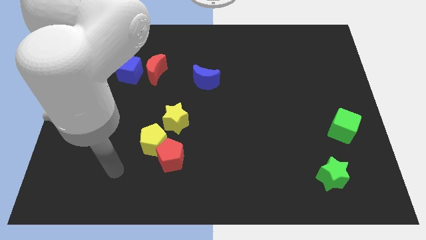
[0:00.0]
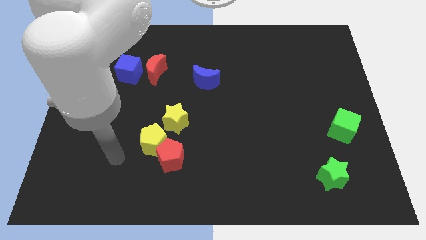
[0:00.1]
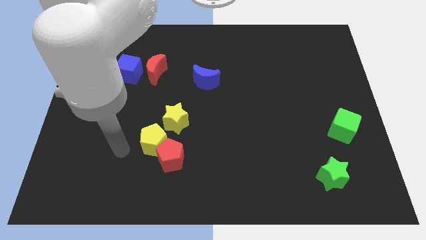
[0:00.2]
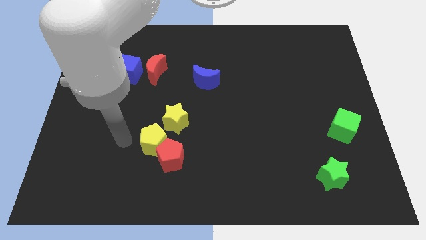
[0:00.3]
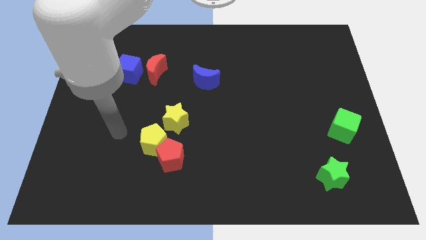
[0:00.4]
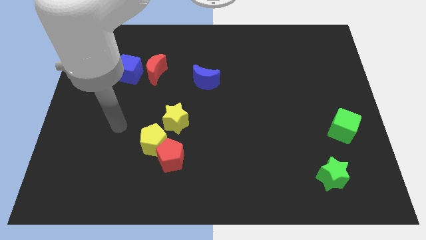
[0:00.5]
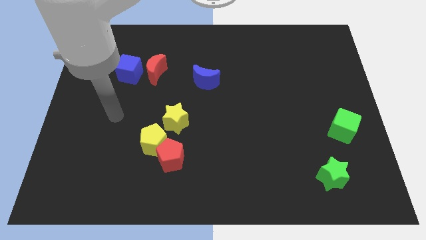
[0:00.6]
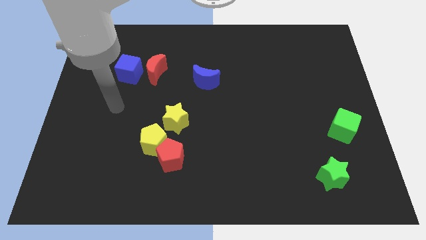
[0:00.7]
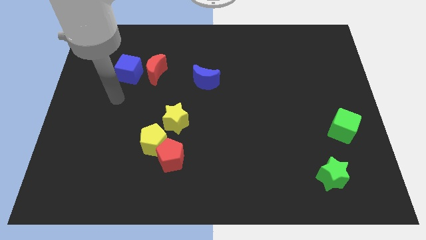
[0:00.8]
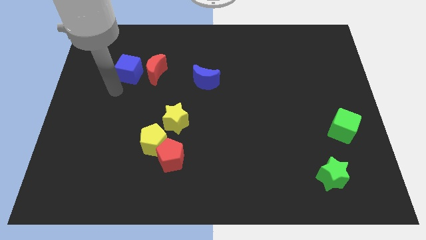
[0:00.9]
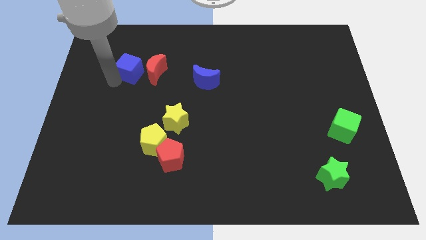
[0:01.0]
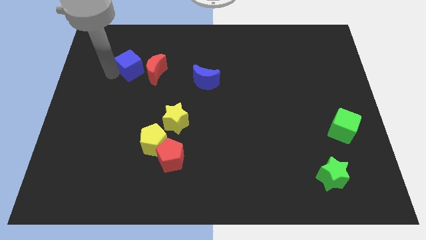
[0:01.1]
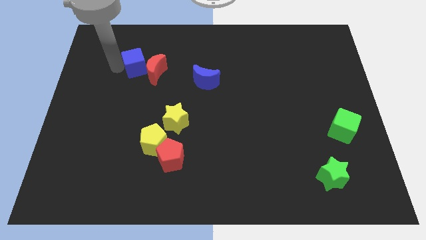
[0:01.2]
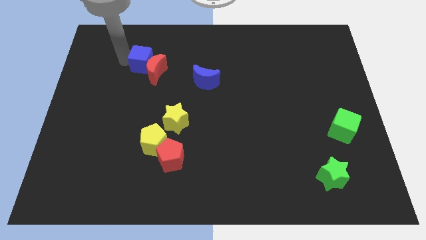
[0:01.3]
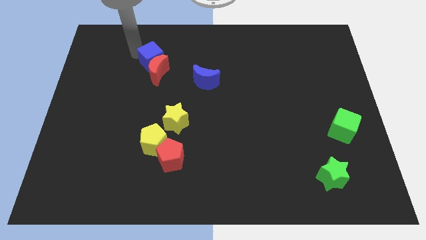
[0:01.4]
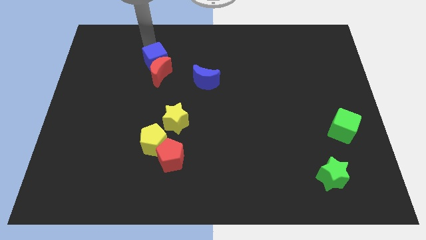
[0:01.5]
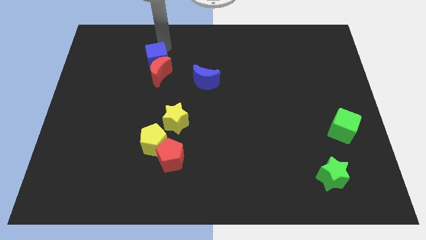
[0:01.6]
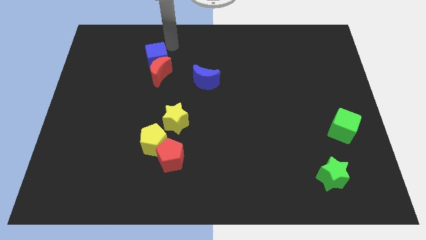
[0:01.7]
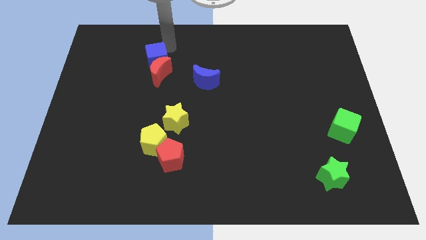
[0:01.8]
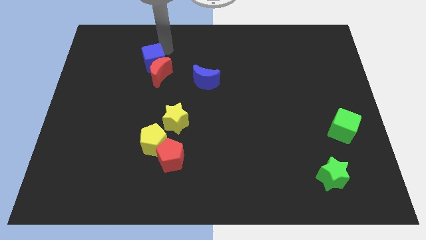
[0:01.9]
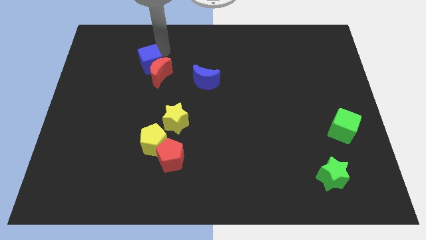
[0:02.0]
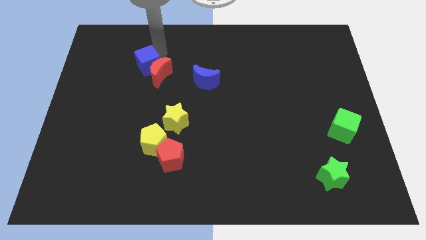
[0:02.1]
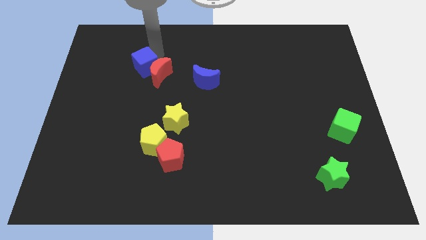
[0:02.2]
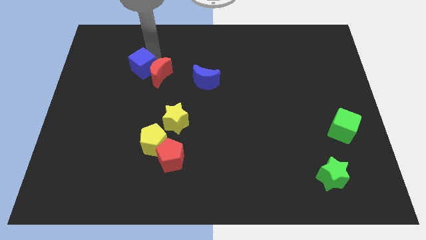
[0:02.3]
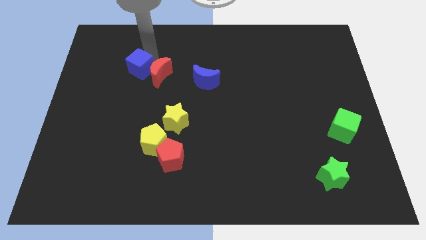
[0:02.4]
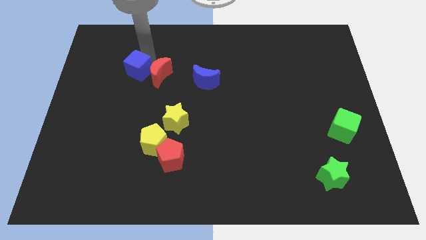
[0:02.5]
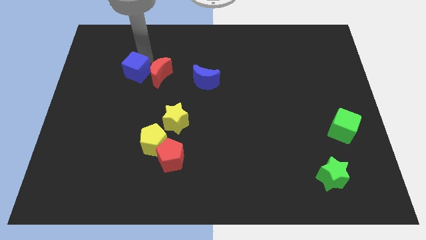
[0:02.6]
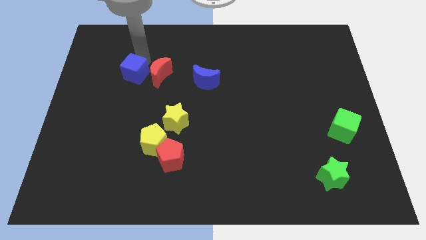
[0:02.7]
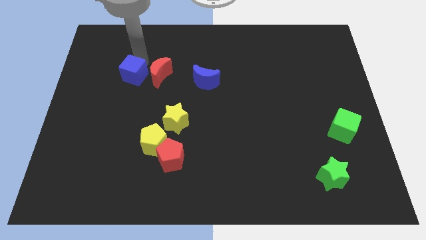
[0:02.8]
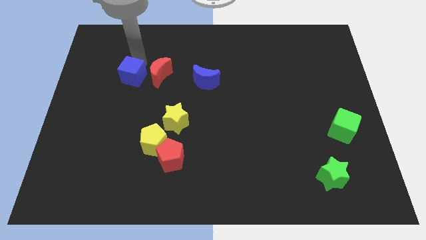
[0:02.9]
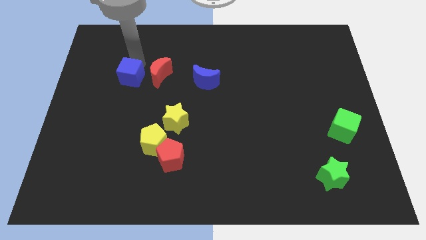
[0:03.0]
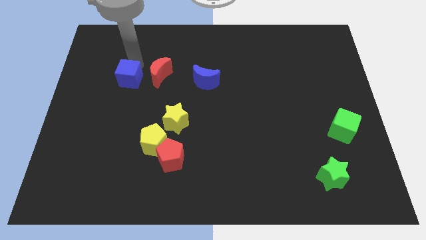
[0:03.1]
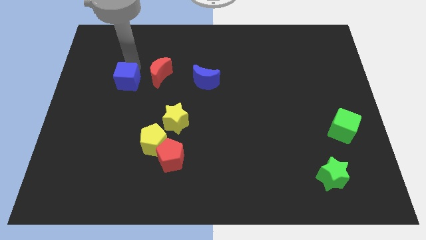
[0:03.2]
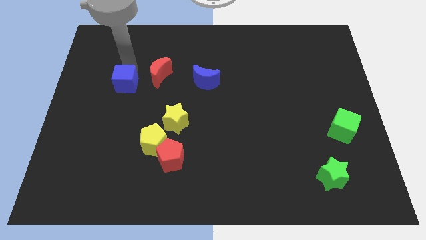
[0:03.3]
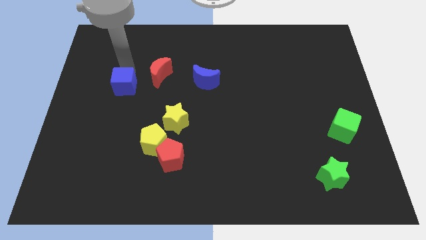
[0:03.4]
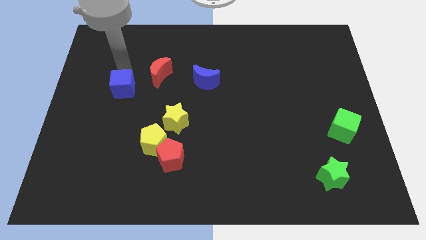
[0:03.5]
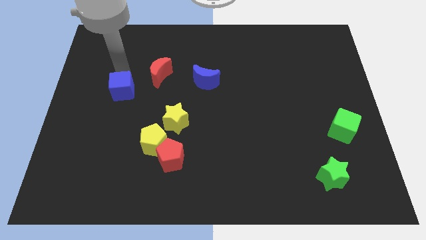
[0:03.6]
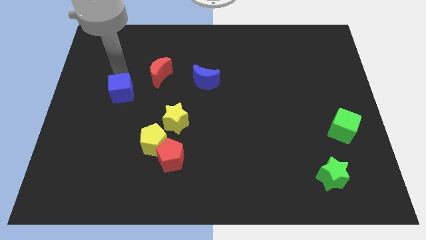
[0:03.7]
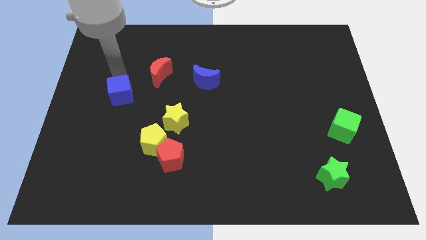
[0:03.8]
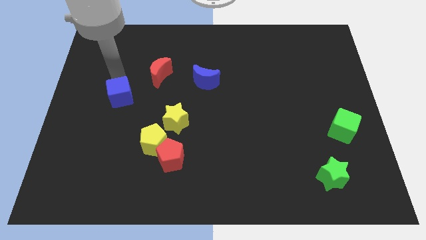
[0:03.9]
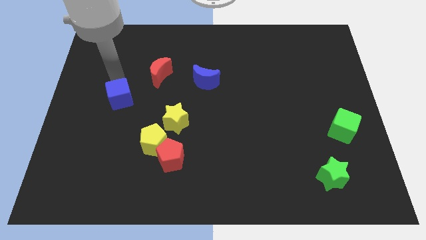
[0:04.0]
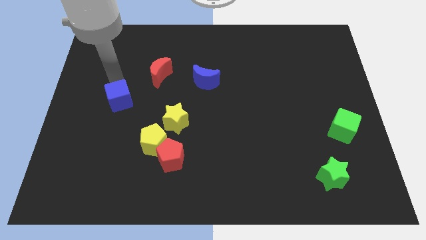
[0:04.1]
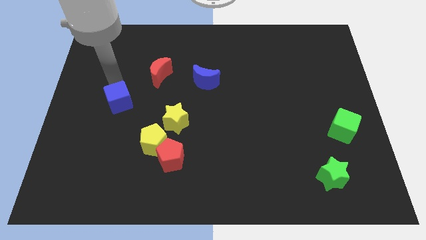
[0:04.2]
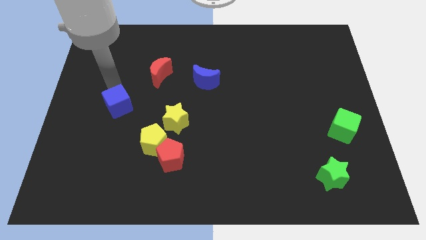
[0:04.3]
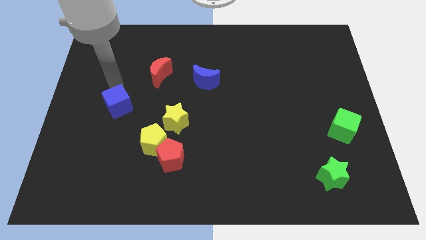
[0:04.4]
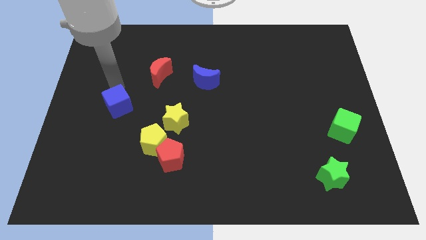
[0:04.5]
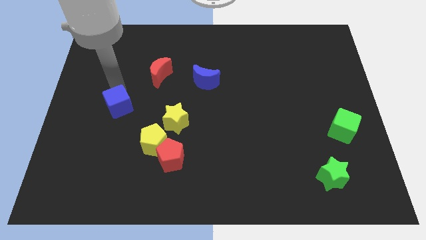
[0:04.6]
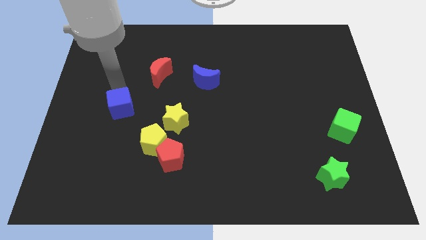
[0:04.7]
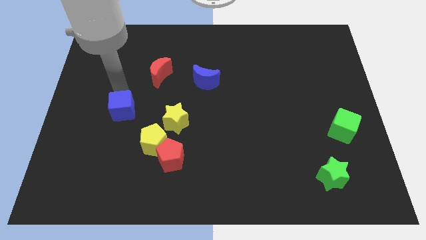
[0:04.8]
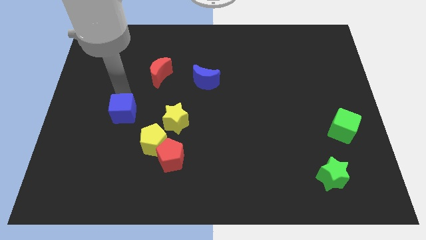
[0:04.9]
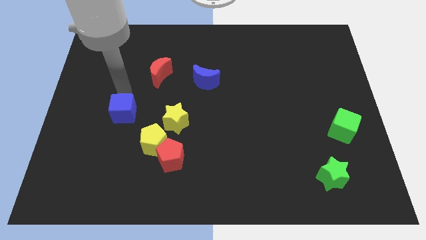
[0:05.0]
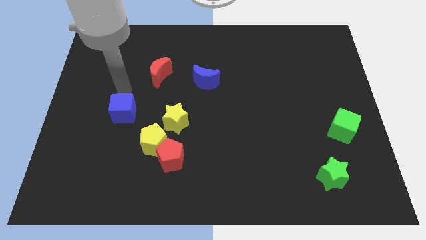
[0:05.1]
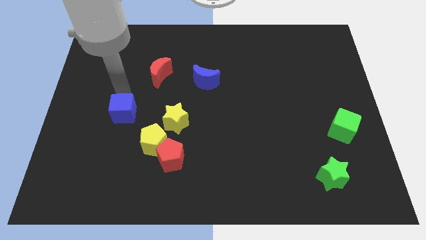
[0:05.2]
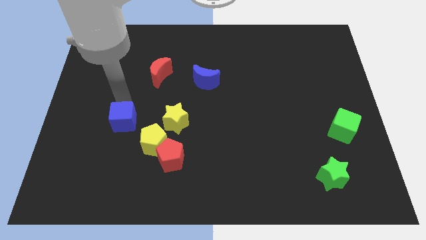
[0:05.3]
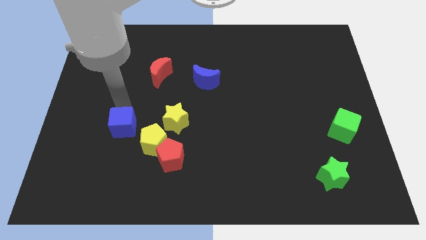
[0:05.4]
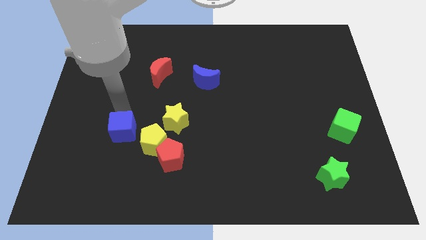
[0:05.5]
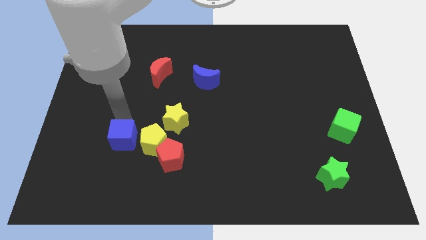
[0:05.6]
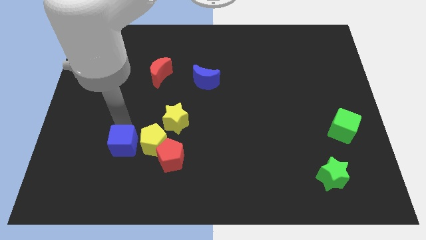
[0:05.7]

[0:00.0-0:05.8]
push the blue cube left of the red pentagon

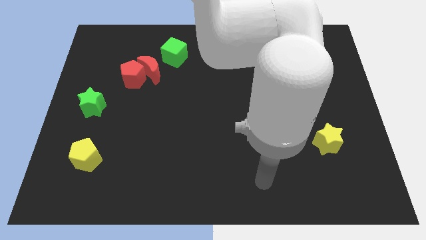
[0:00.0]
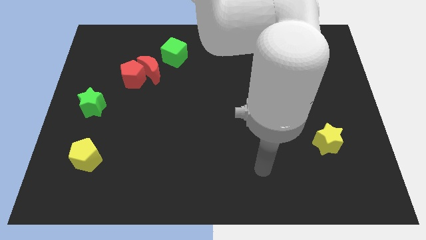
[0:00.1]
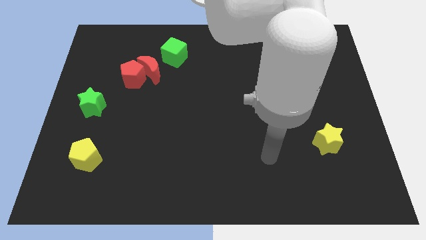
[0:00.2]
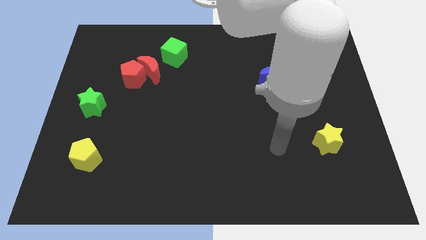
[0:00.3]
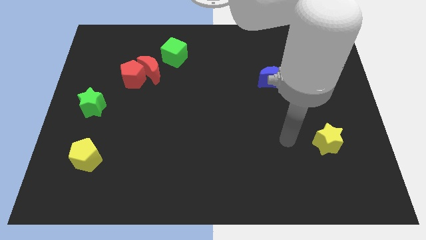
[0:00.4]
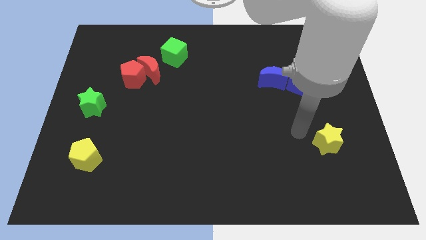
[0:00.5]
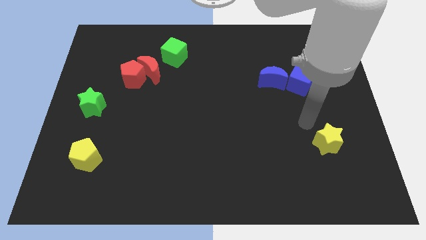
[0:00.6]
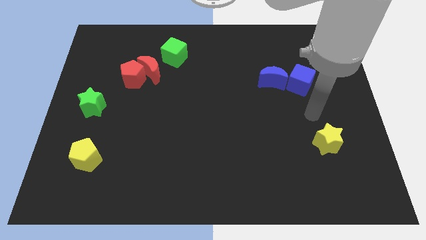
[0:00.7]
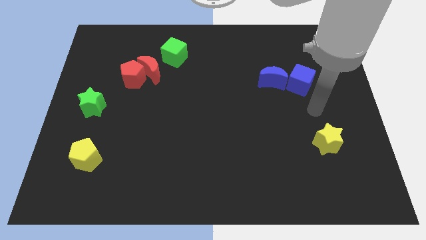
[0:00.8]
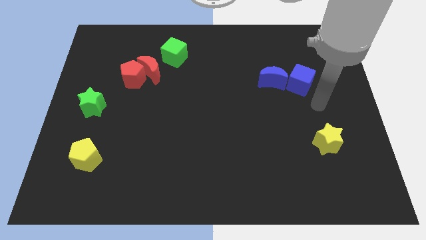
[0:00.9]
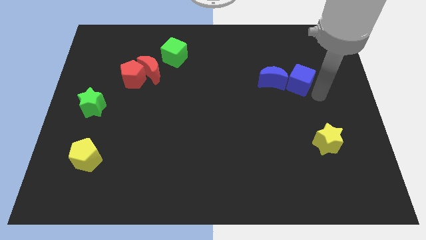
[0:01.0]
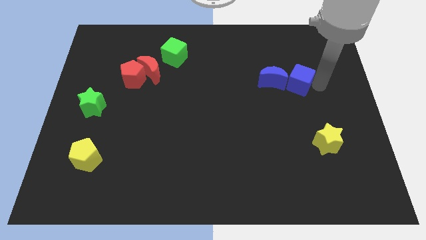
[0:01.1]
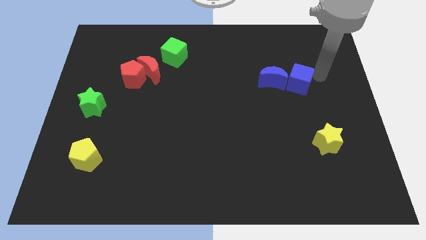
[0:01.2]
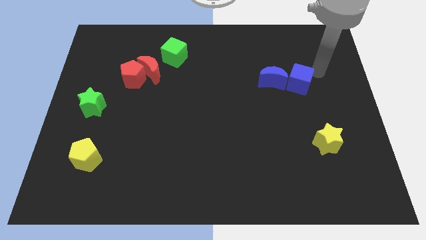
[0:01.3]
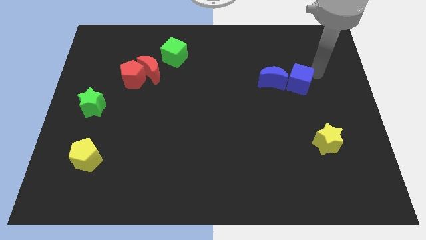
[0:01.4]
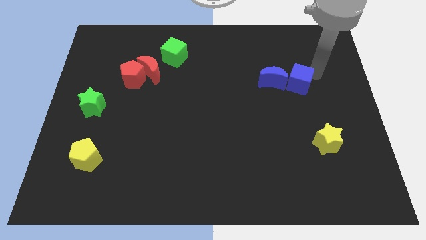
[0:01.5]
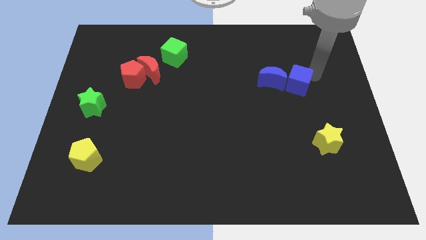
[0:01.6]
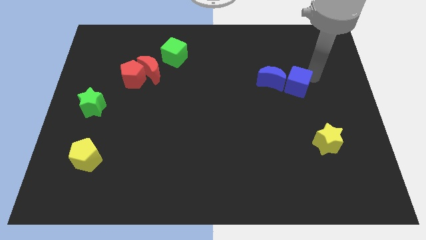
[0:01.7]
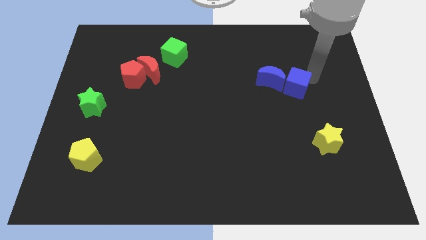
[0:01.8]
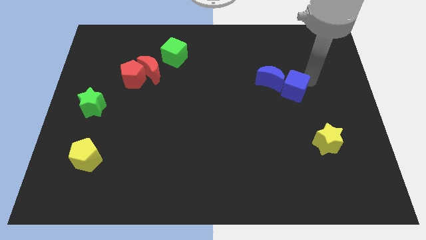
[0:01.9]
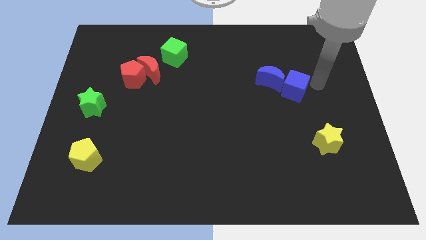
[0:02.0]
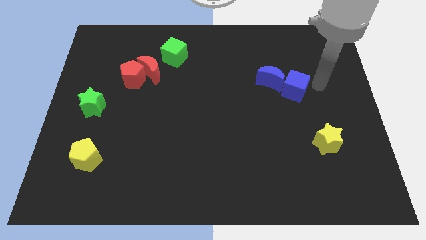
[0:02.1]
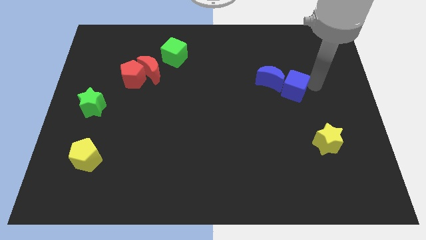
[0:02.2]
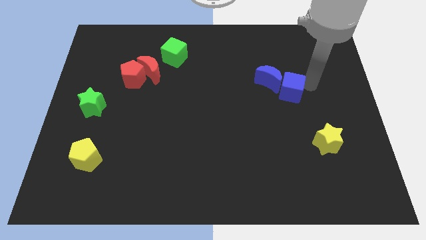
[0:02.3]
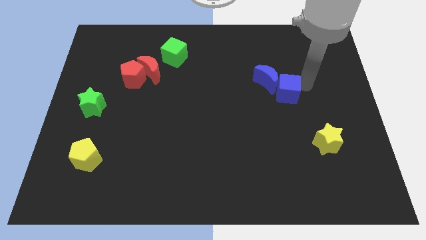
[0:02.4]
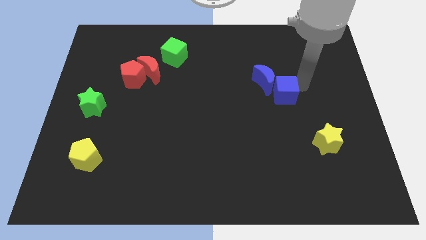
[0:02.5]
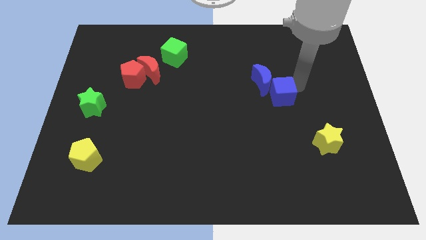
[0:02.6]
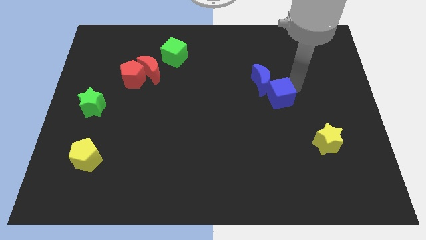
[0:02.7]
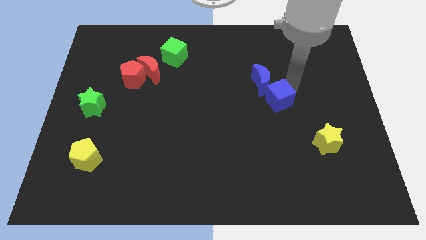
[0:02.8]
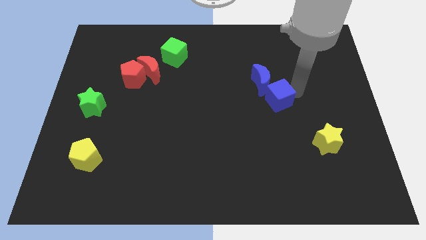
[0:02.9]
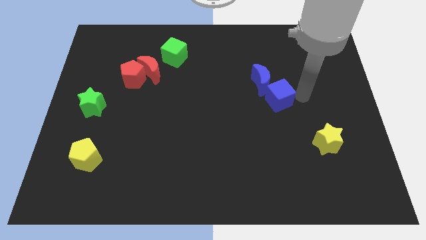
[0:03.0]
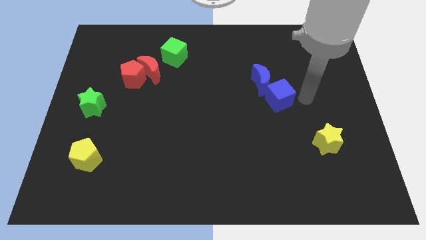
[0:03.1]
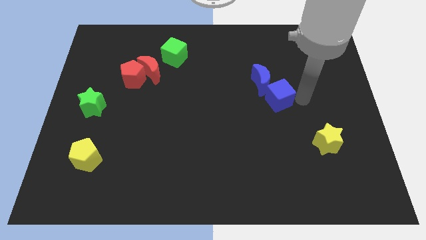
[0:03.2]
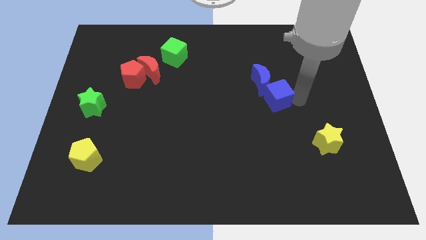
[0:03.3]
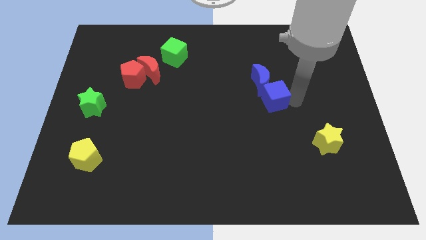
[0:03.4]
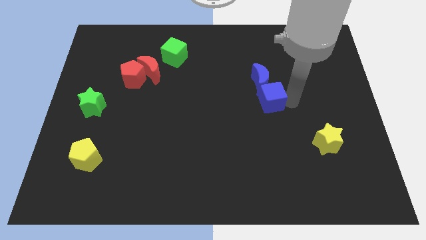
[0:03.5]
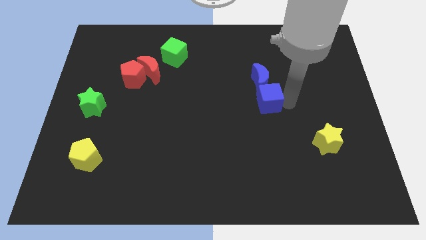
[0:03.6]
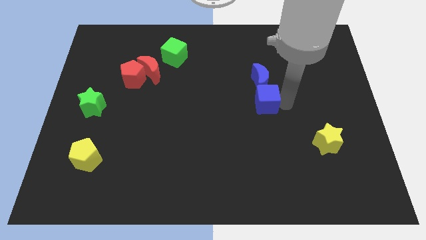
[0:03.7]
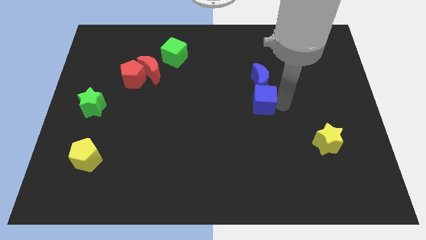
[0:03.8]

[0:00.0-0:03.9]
put the blue cube to the bottom left of the blue moon
